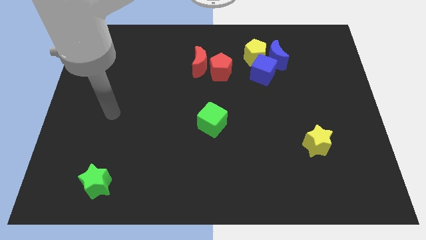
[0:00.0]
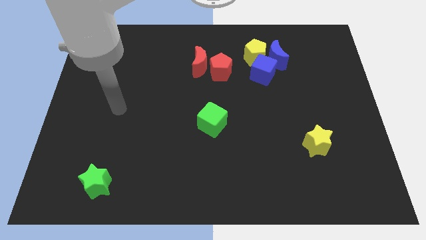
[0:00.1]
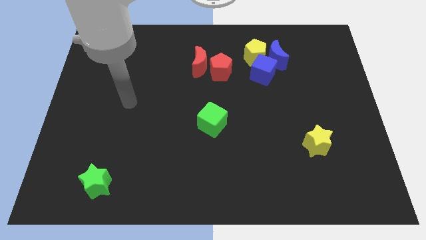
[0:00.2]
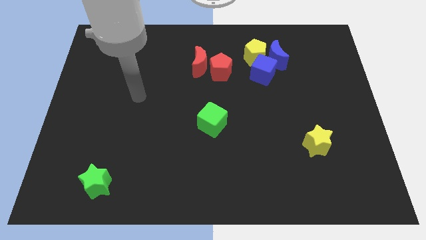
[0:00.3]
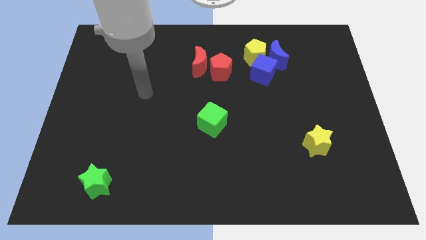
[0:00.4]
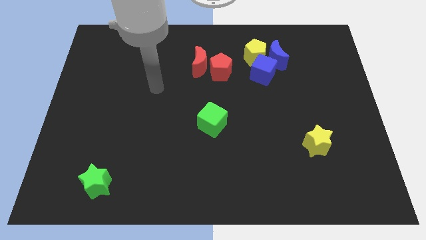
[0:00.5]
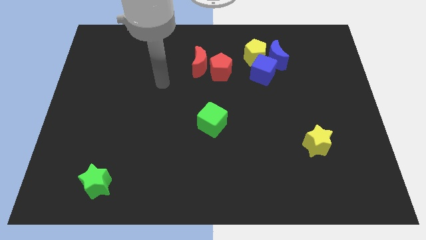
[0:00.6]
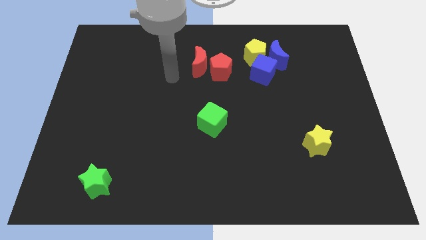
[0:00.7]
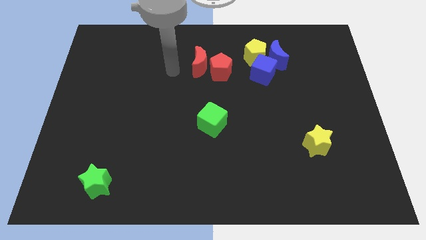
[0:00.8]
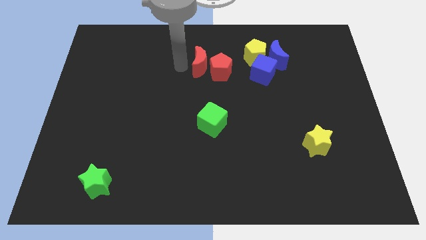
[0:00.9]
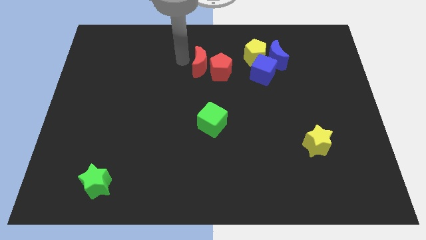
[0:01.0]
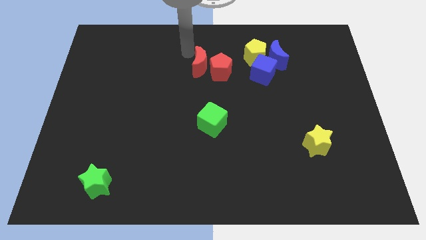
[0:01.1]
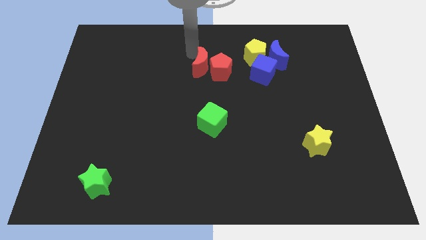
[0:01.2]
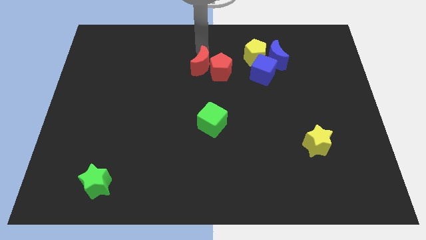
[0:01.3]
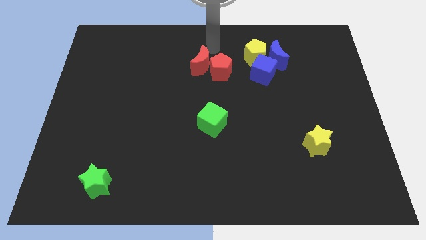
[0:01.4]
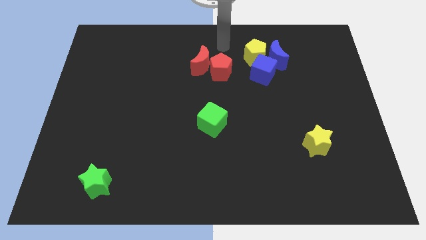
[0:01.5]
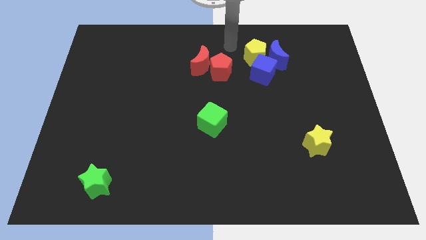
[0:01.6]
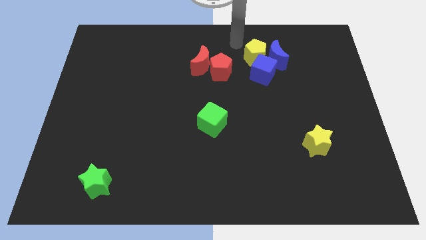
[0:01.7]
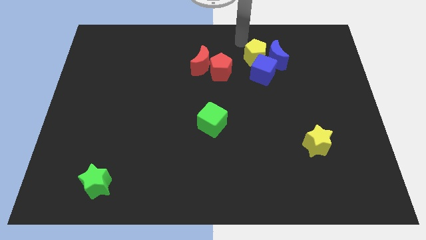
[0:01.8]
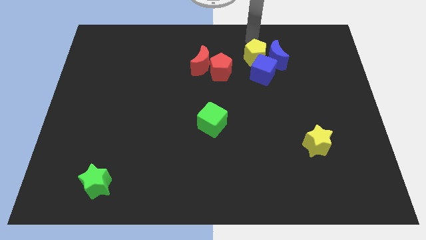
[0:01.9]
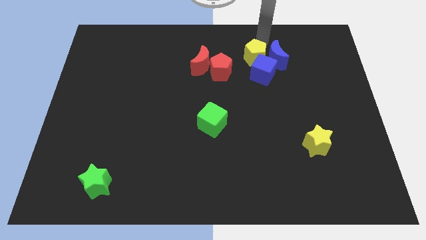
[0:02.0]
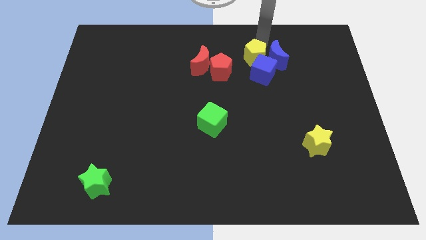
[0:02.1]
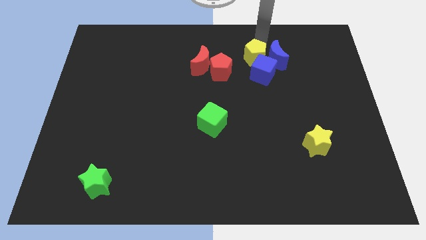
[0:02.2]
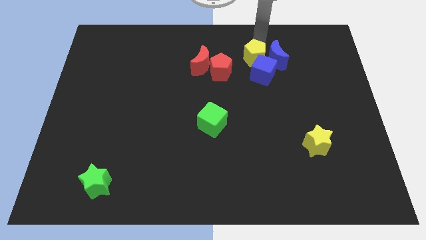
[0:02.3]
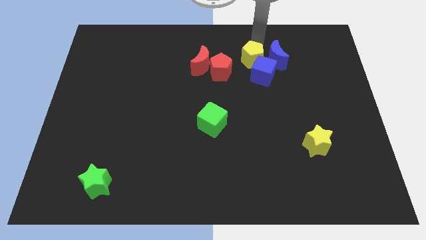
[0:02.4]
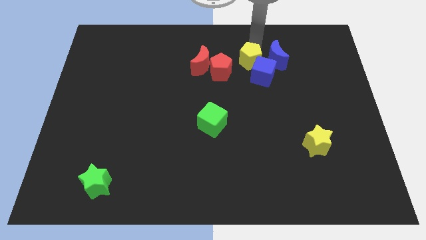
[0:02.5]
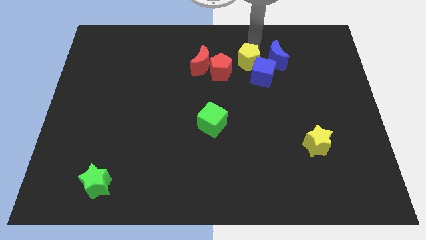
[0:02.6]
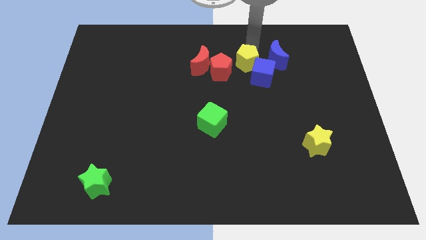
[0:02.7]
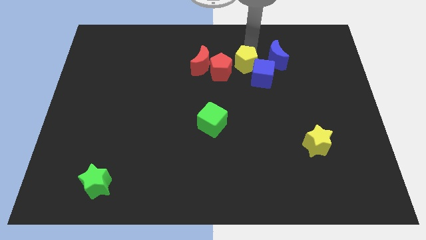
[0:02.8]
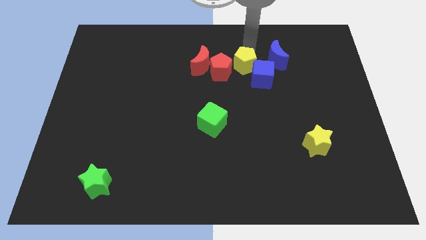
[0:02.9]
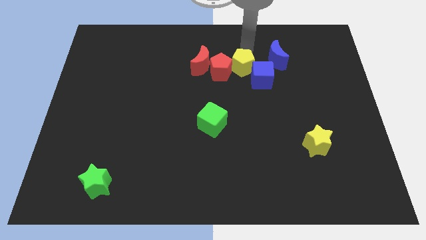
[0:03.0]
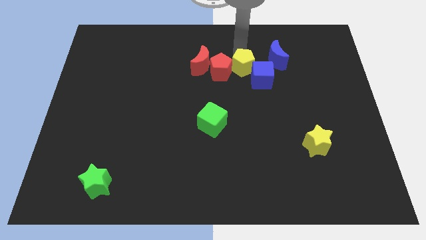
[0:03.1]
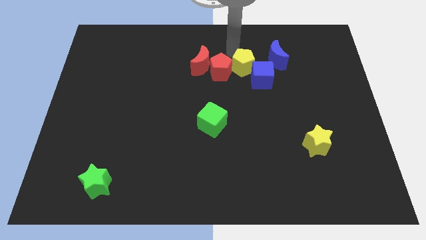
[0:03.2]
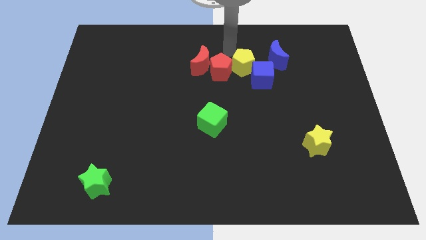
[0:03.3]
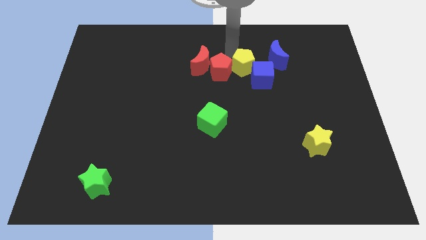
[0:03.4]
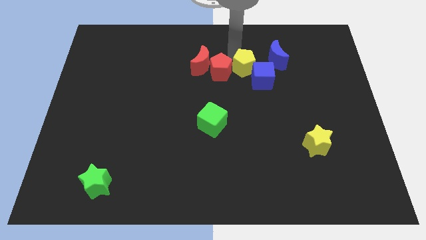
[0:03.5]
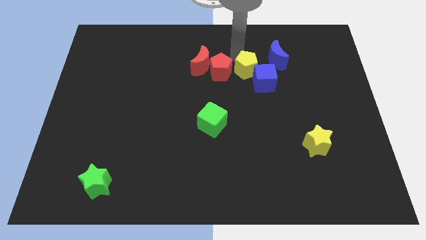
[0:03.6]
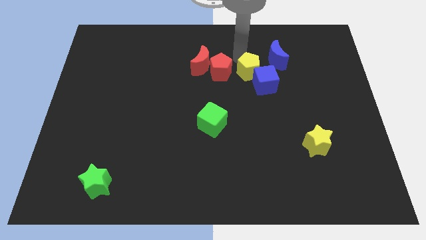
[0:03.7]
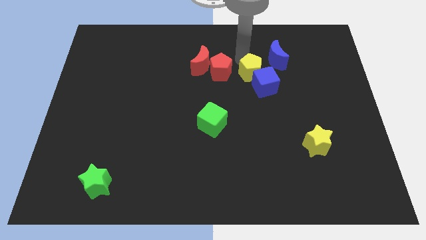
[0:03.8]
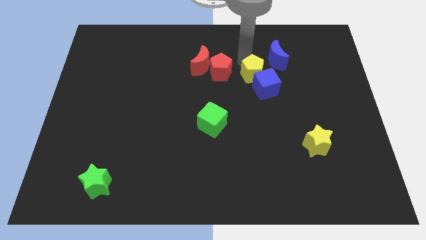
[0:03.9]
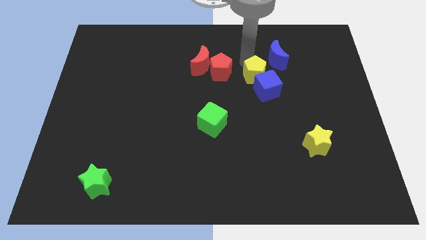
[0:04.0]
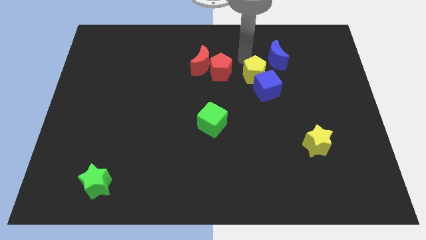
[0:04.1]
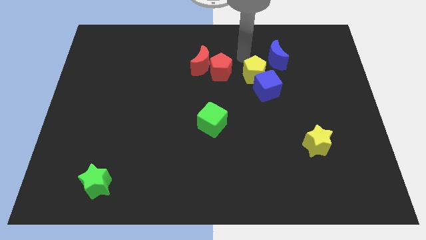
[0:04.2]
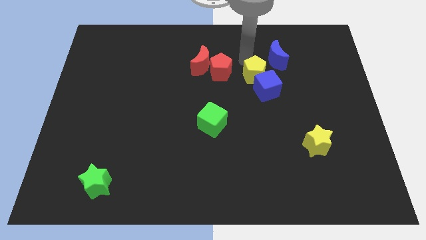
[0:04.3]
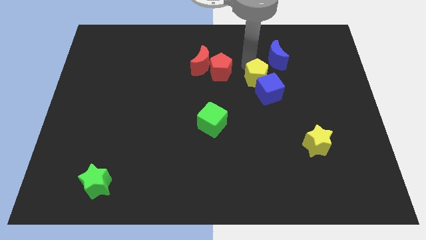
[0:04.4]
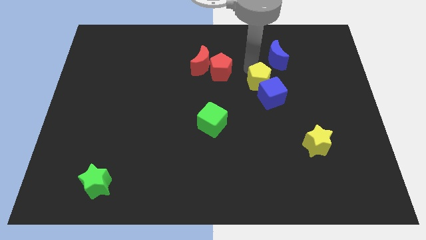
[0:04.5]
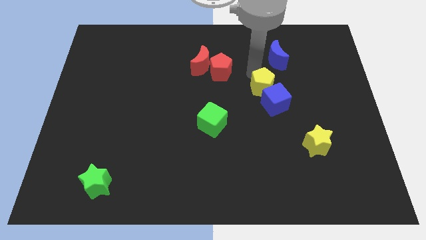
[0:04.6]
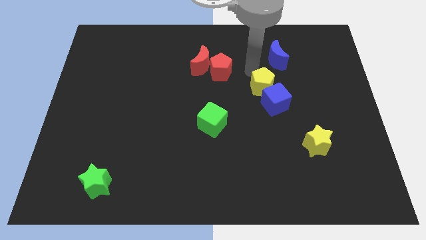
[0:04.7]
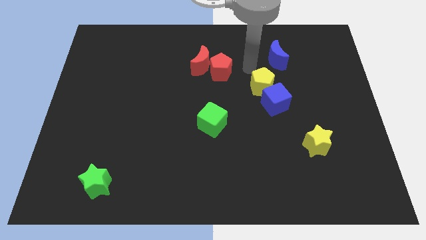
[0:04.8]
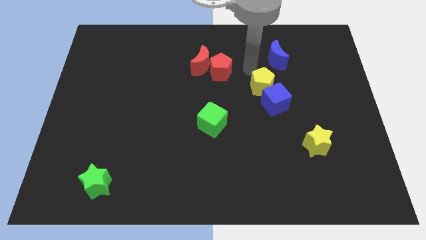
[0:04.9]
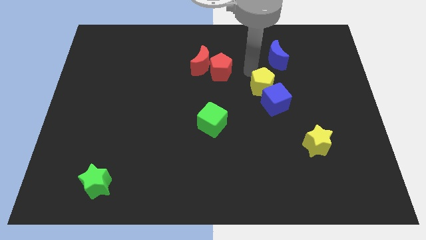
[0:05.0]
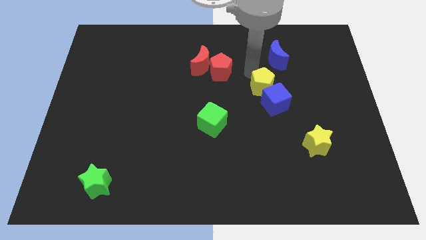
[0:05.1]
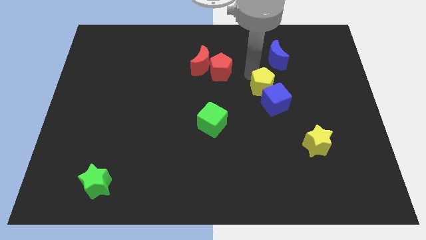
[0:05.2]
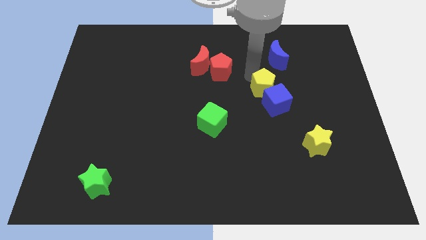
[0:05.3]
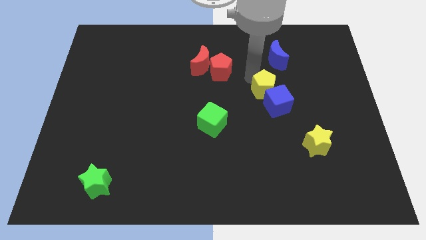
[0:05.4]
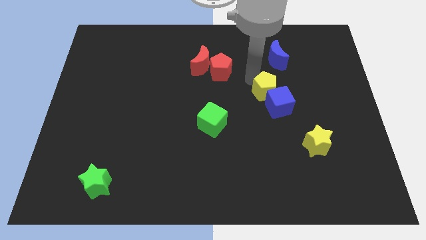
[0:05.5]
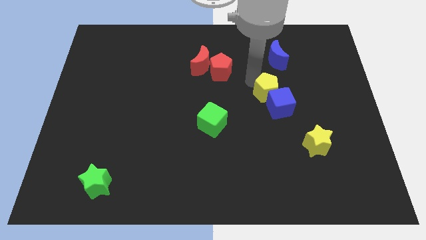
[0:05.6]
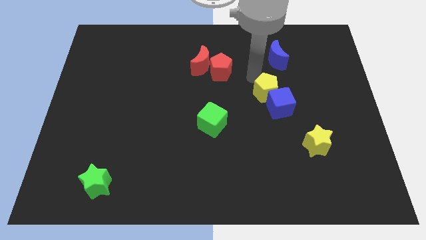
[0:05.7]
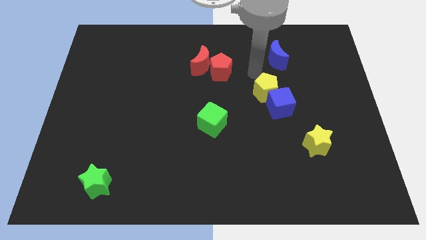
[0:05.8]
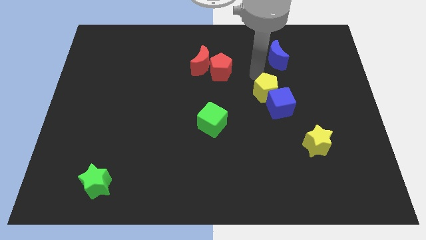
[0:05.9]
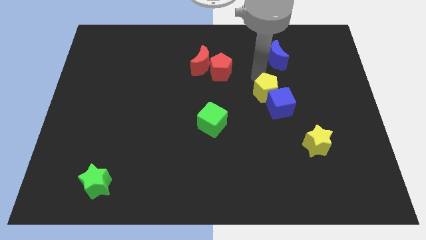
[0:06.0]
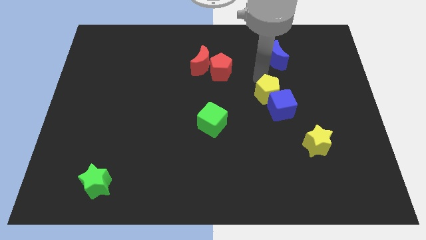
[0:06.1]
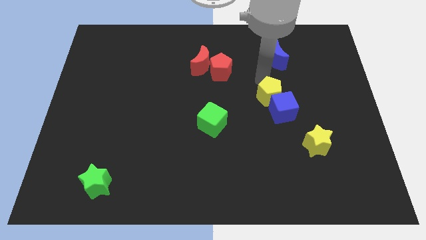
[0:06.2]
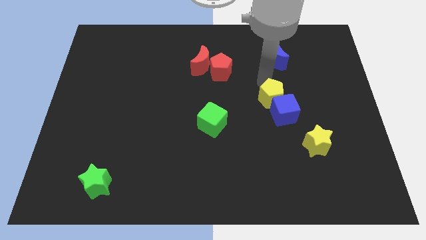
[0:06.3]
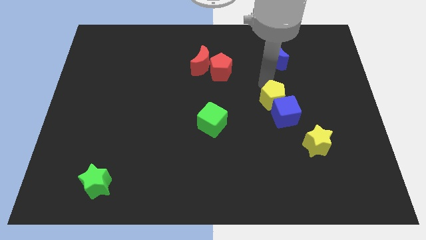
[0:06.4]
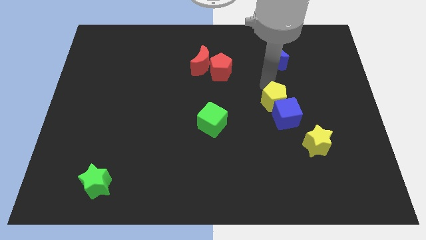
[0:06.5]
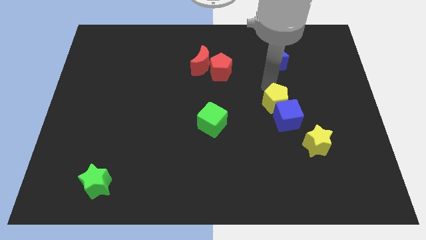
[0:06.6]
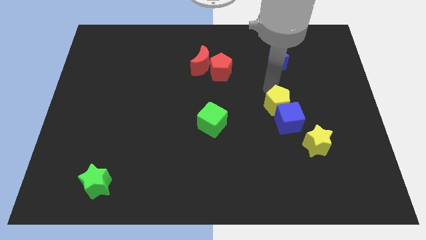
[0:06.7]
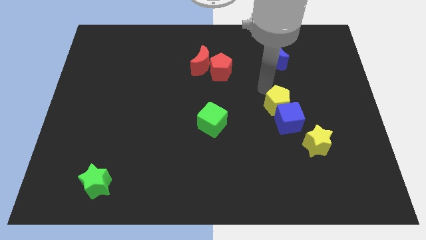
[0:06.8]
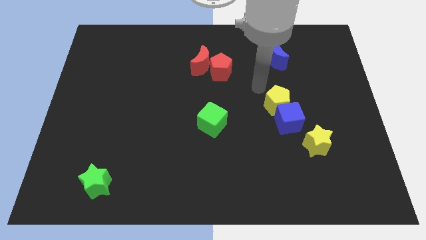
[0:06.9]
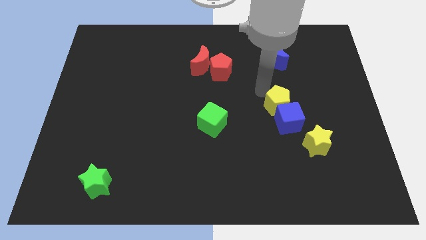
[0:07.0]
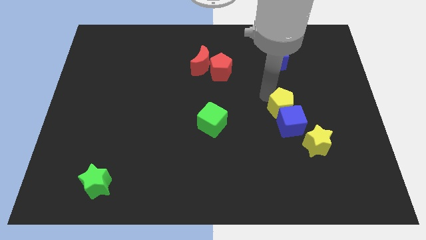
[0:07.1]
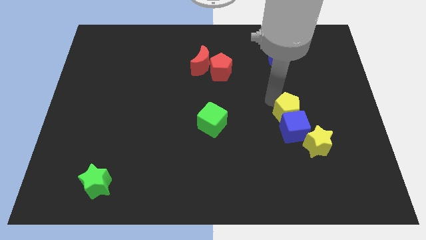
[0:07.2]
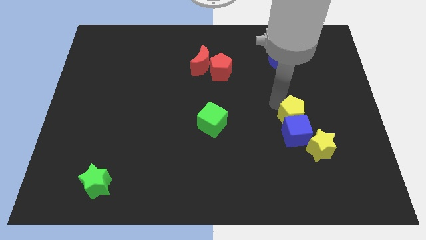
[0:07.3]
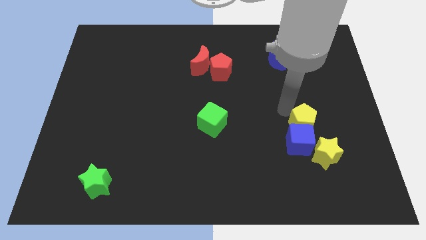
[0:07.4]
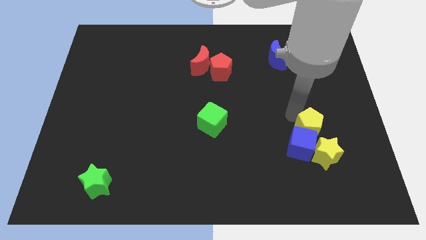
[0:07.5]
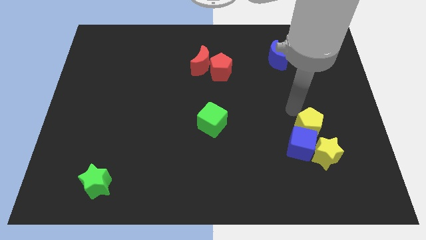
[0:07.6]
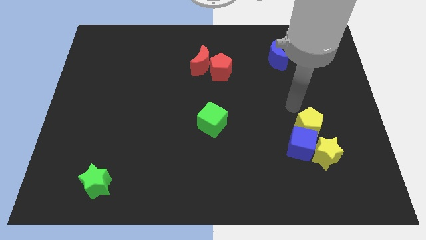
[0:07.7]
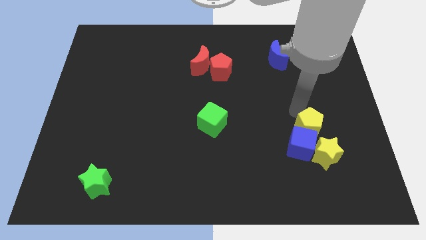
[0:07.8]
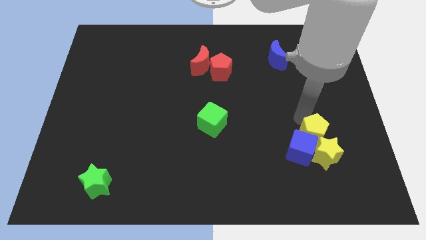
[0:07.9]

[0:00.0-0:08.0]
put the yellow pentagon next to the yellow star
